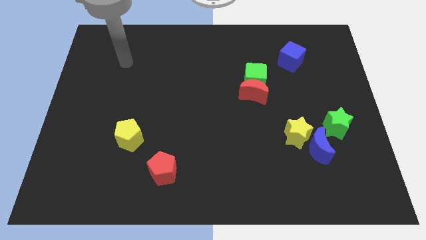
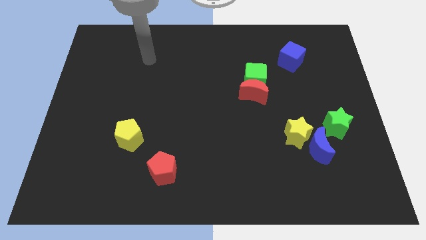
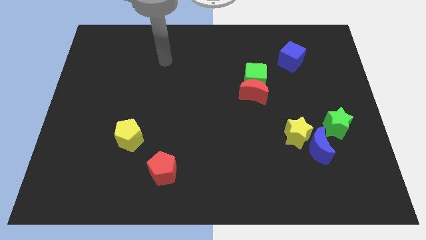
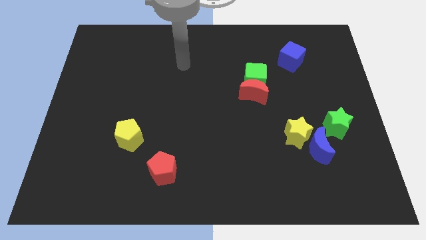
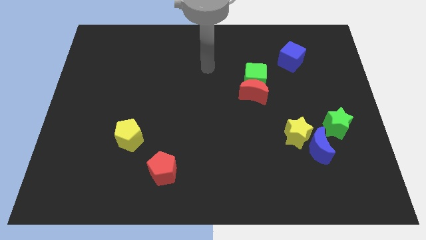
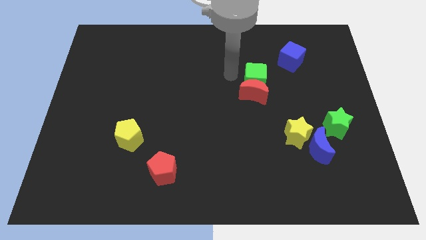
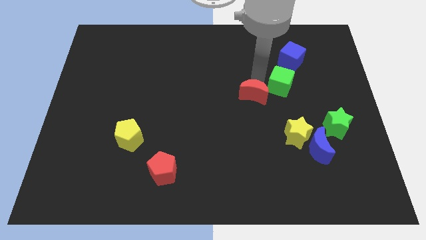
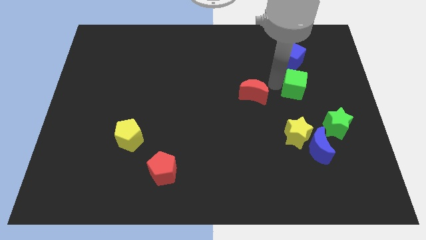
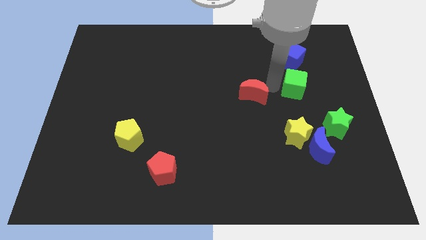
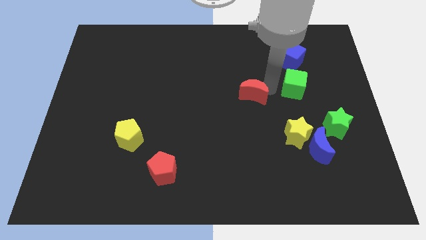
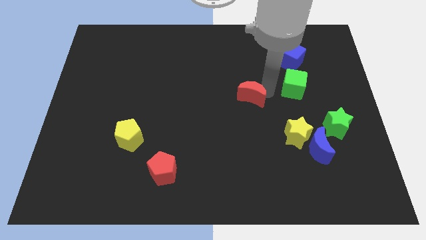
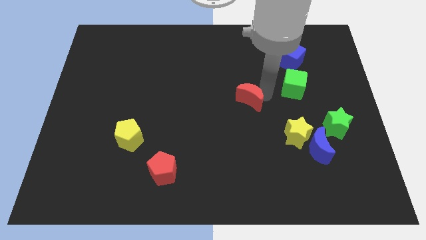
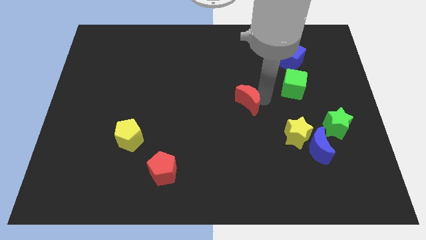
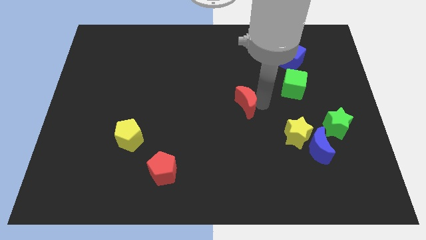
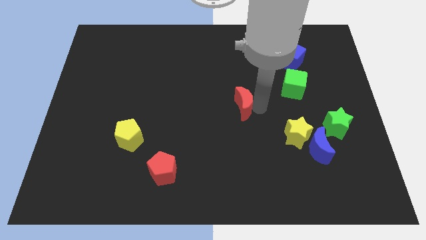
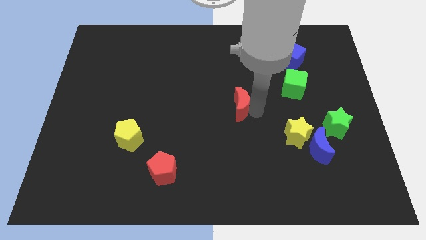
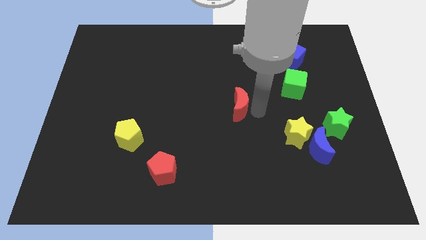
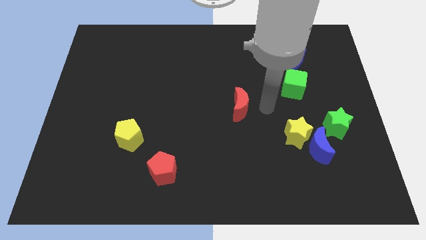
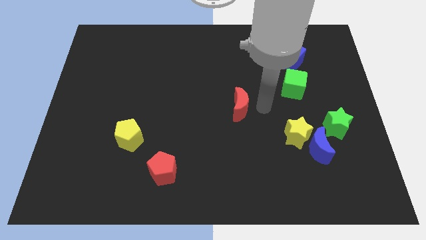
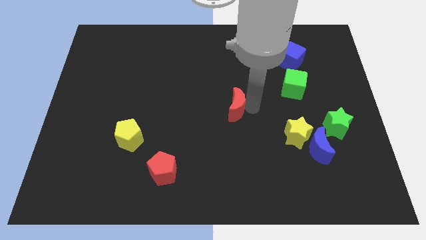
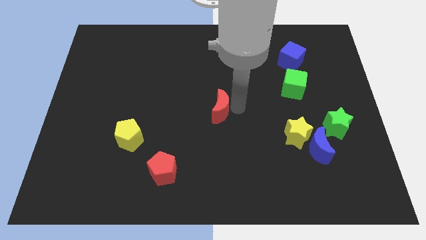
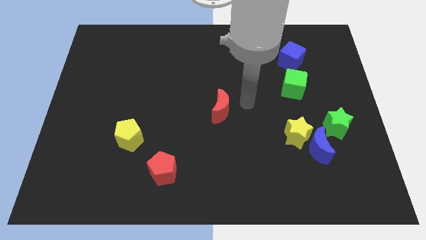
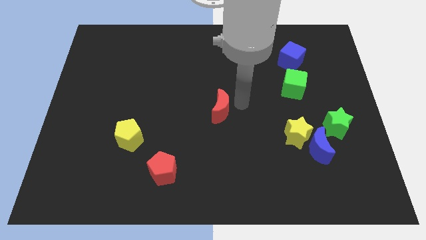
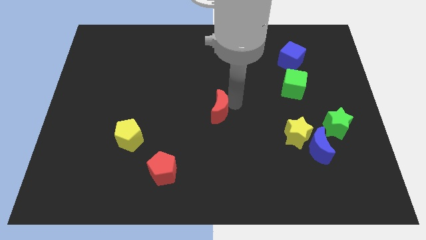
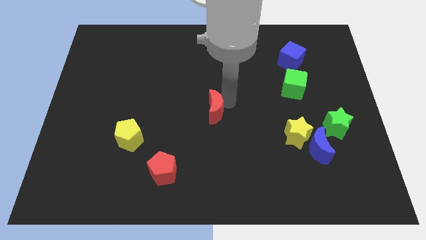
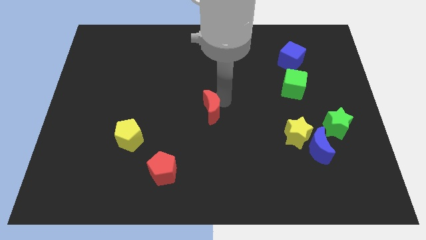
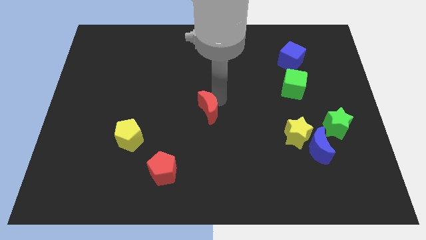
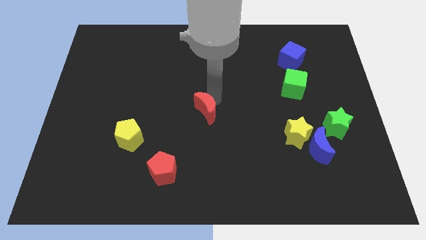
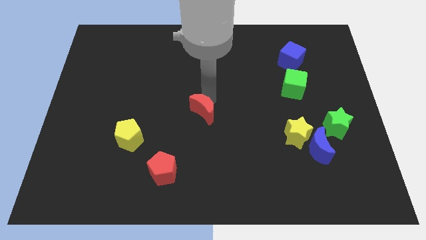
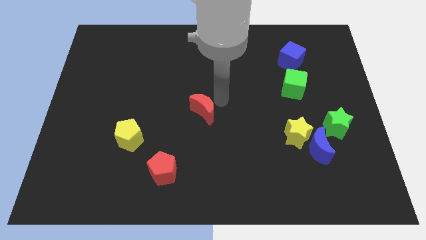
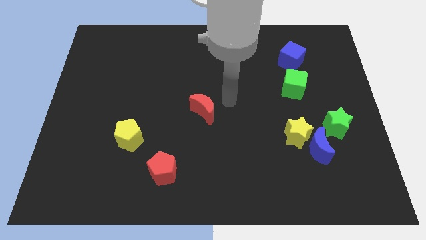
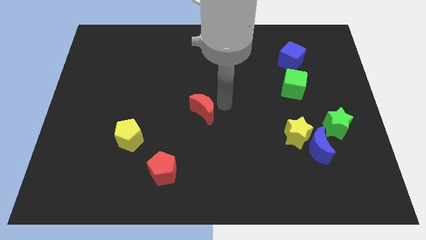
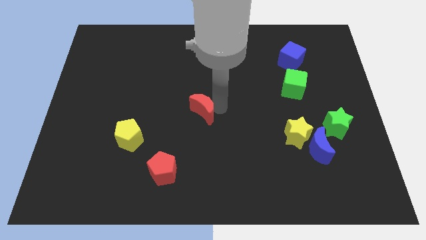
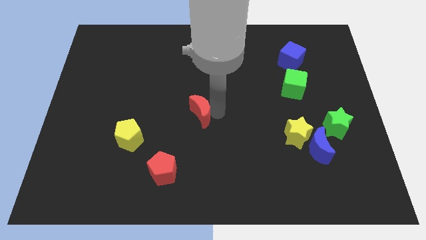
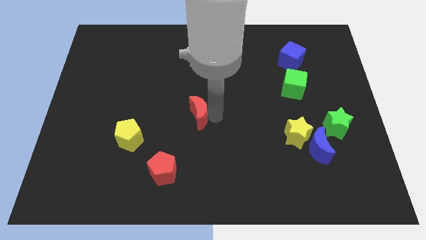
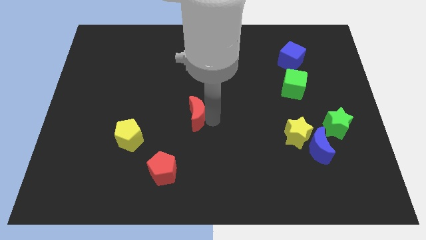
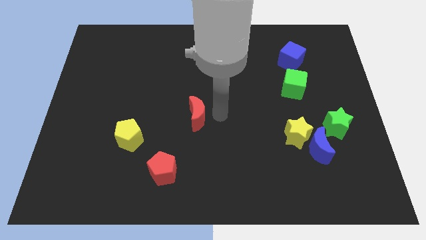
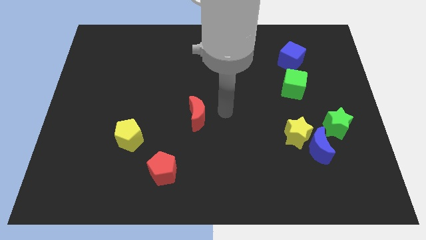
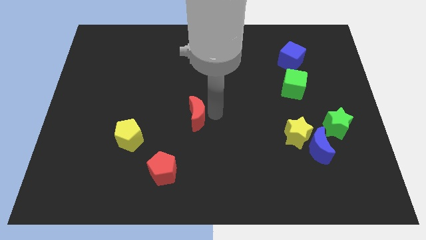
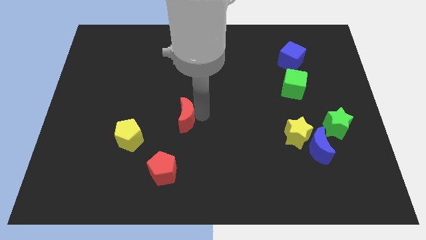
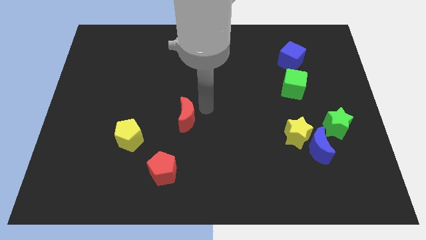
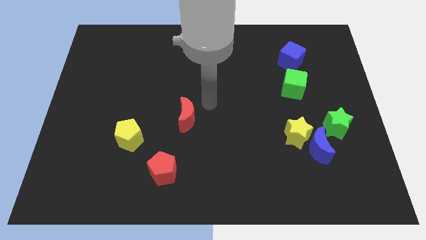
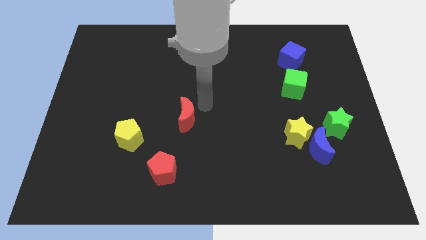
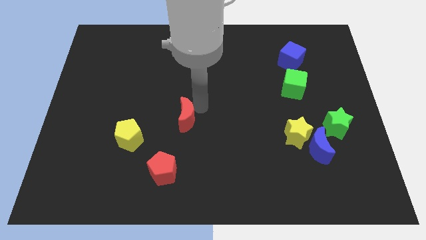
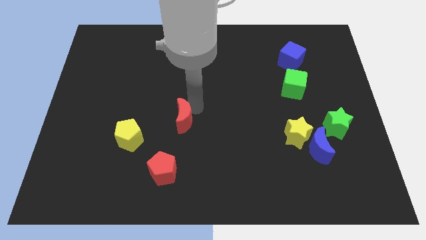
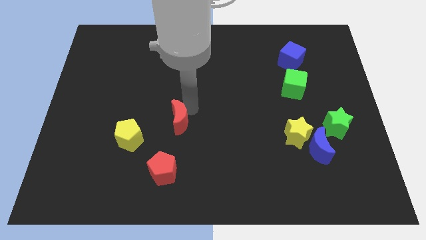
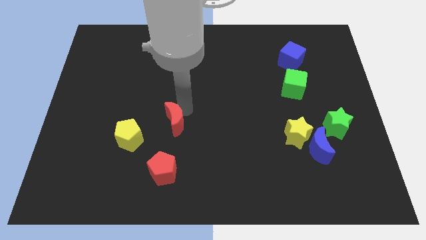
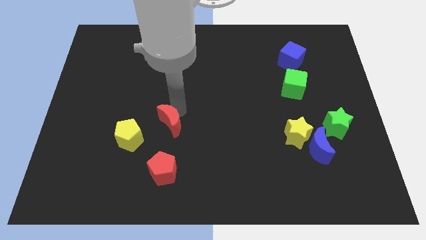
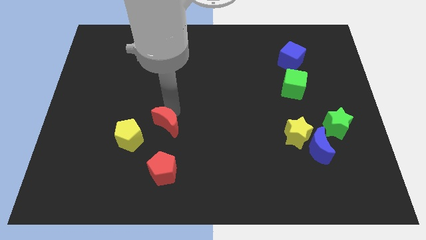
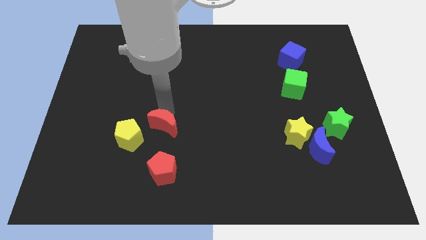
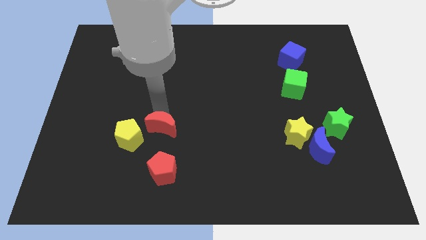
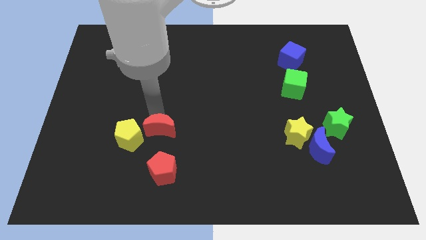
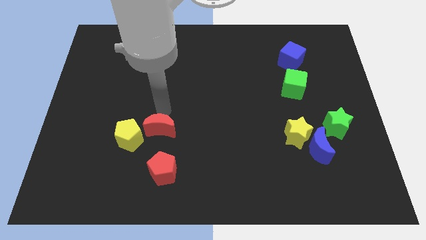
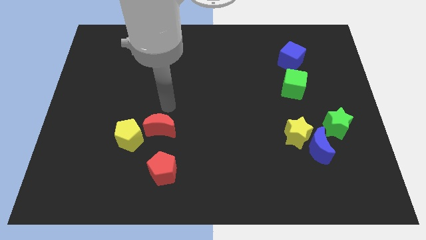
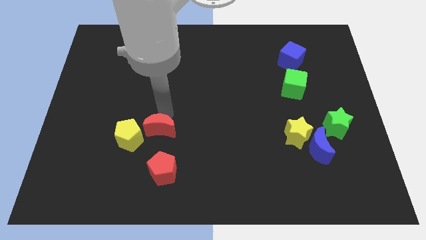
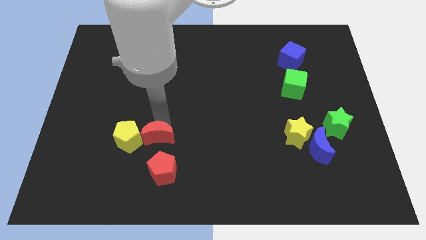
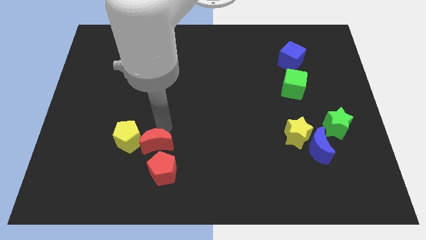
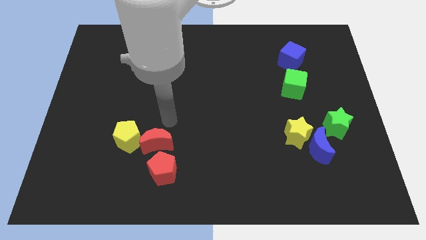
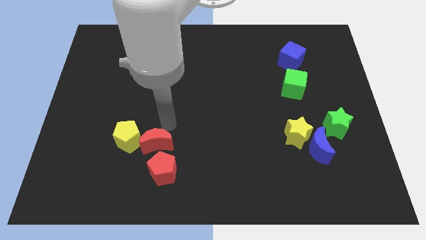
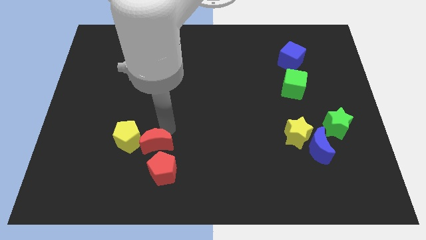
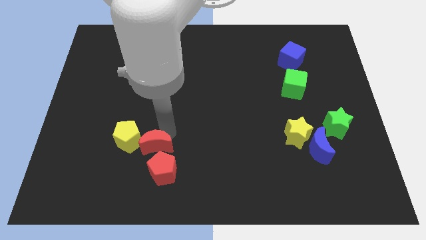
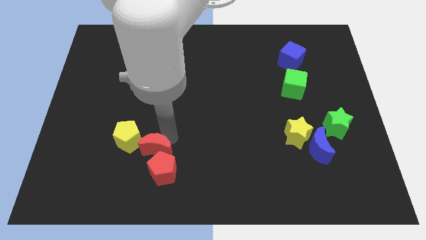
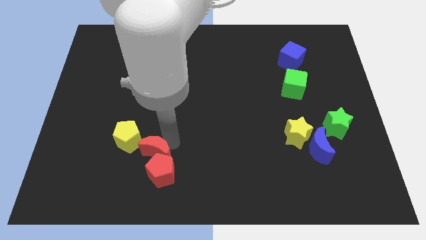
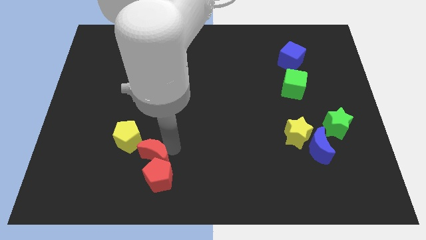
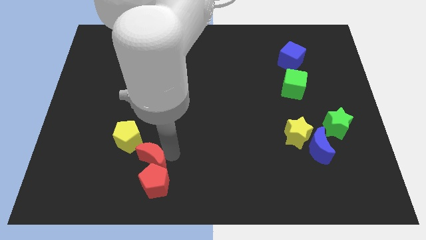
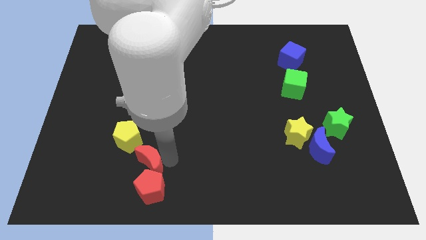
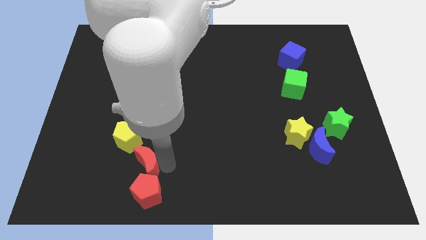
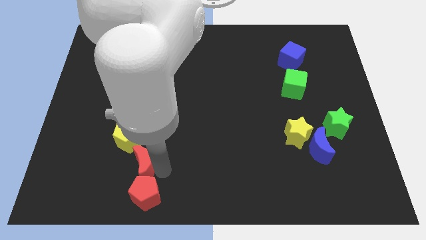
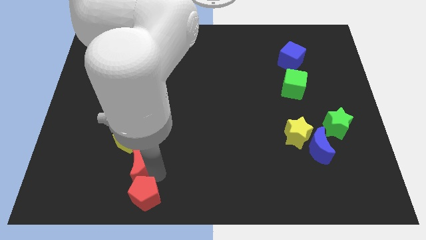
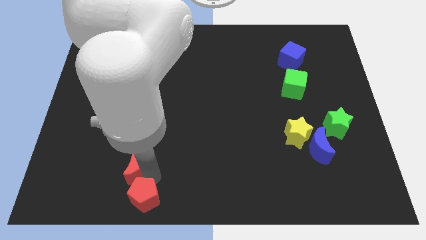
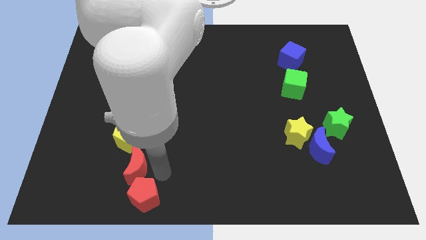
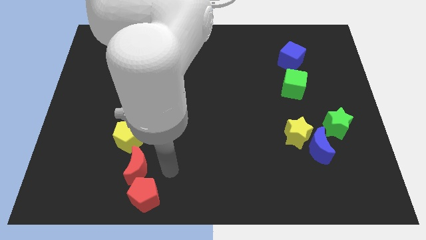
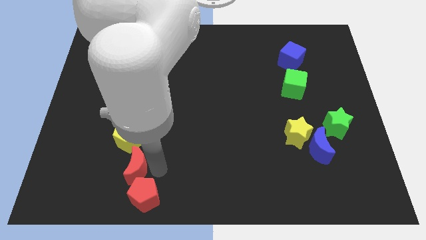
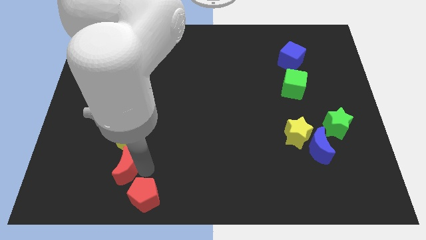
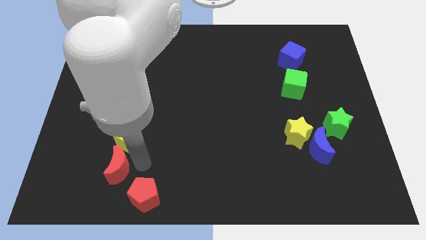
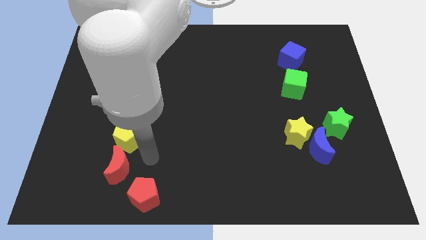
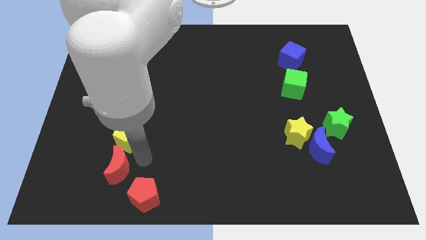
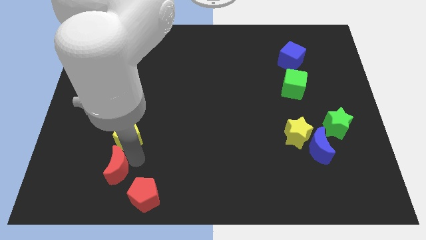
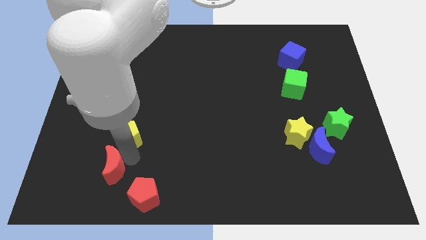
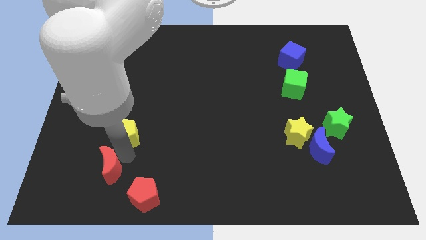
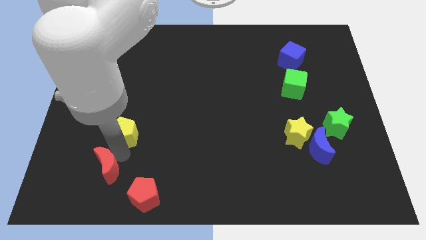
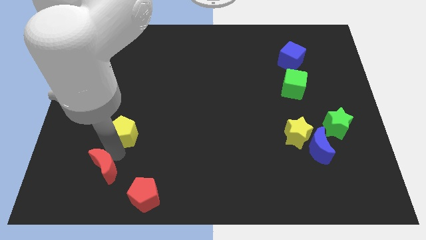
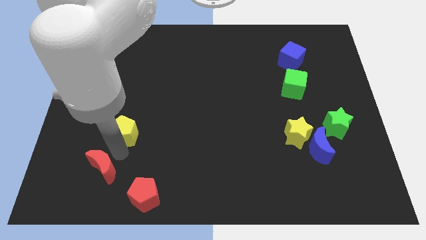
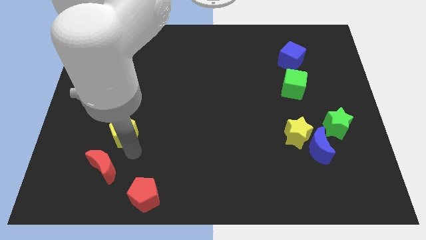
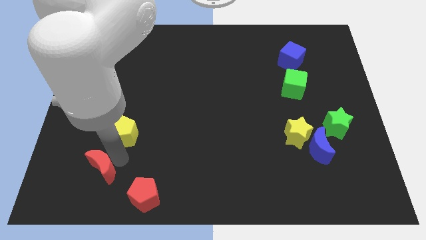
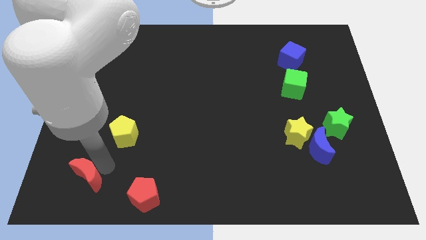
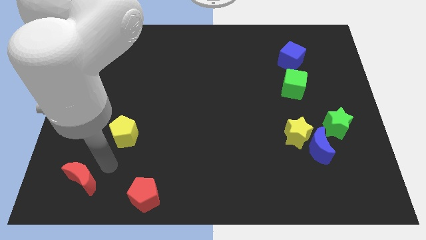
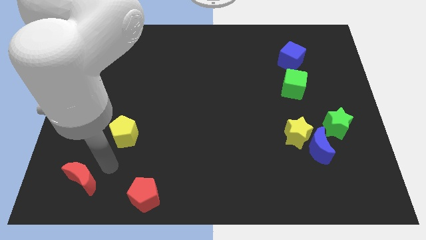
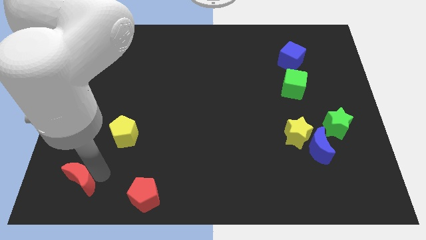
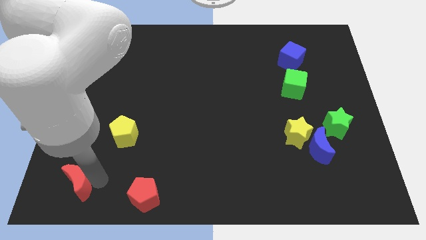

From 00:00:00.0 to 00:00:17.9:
slide the red moon to the lower left corner
